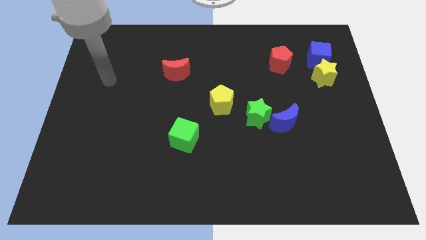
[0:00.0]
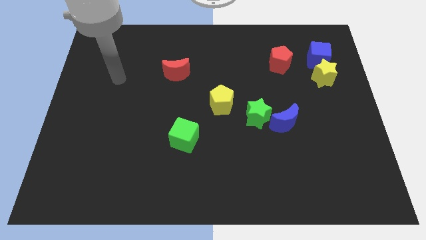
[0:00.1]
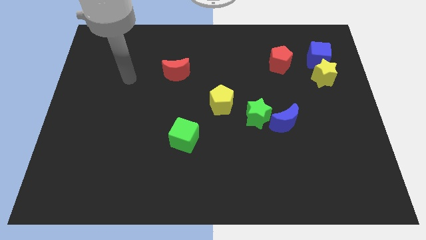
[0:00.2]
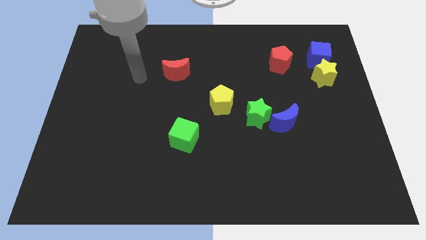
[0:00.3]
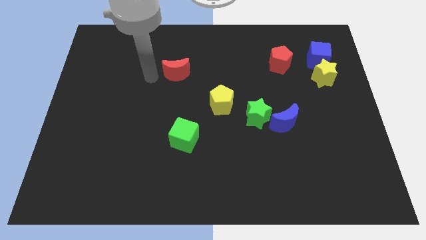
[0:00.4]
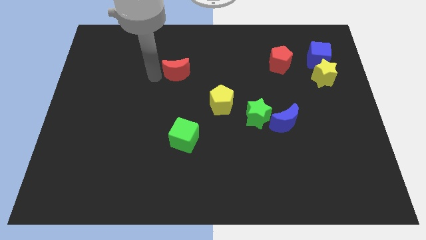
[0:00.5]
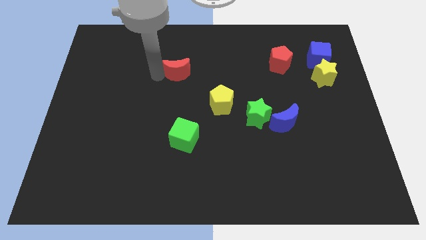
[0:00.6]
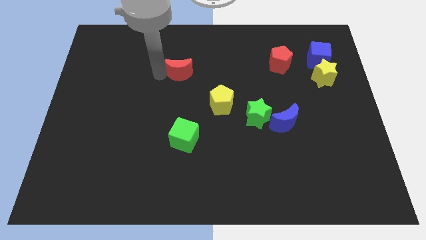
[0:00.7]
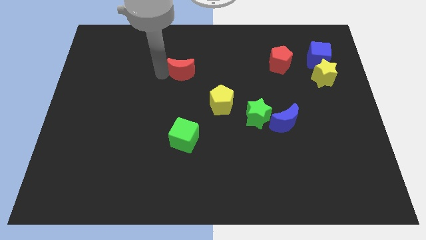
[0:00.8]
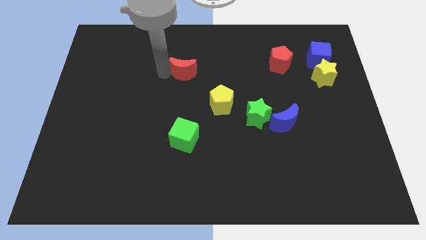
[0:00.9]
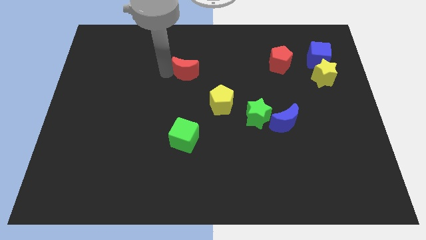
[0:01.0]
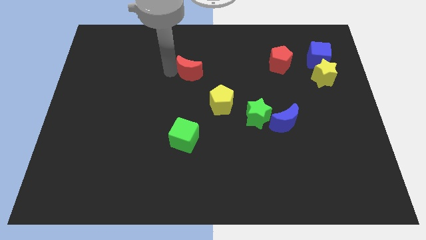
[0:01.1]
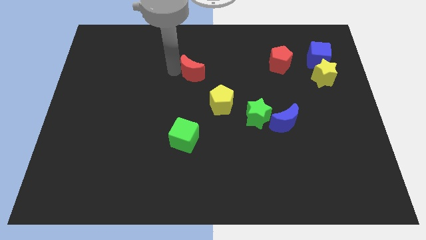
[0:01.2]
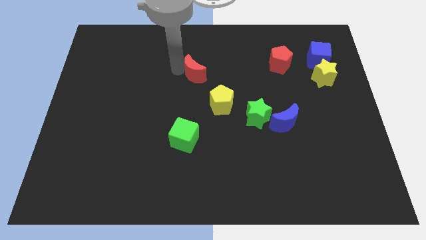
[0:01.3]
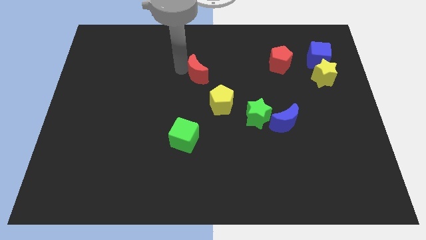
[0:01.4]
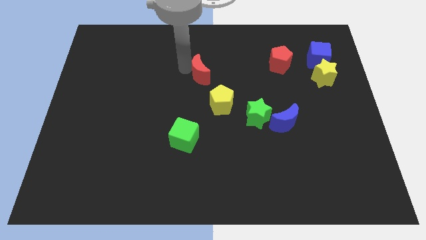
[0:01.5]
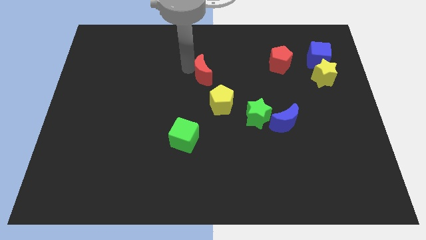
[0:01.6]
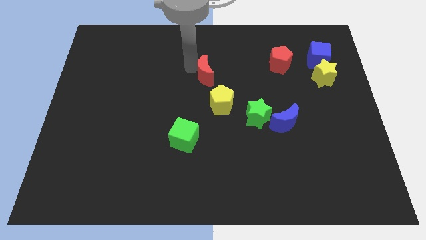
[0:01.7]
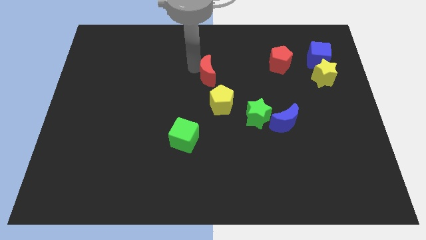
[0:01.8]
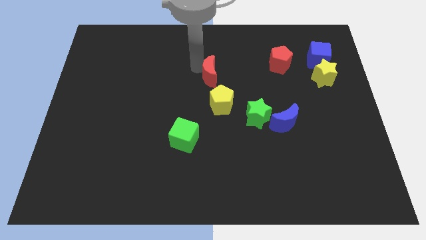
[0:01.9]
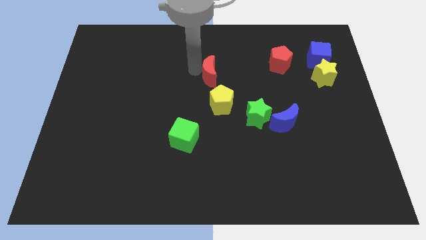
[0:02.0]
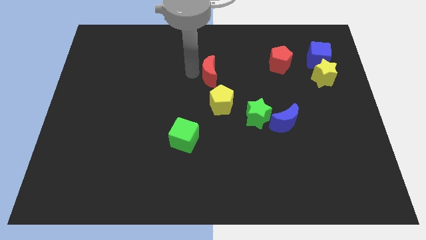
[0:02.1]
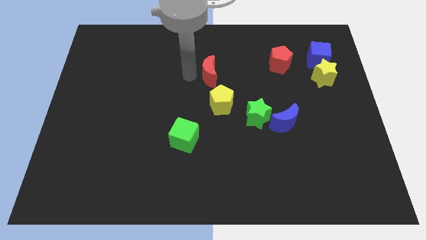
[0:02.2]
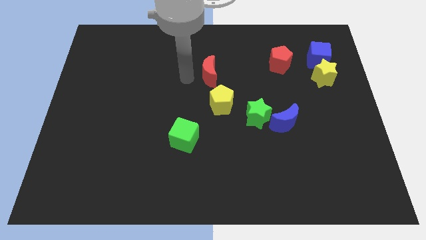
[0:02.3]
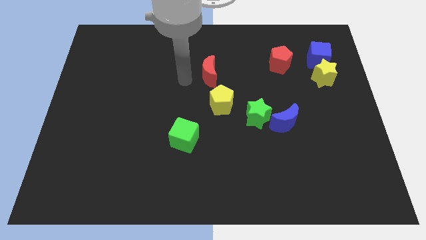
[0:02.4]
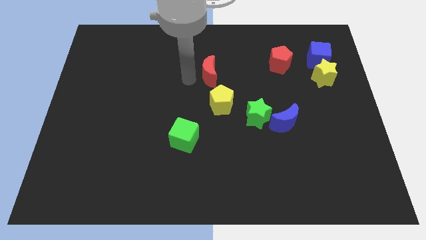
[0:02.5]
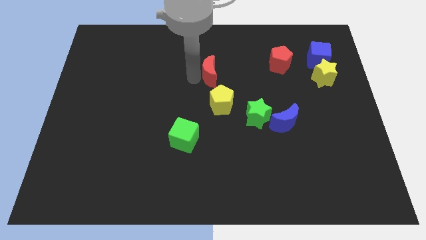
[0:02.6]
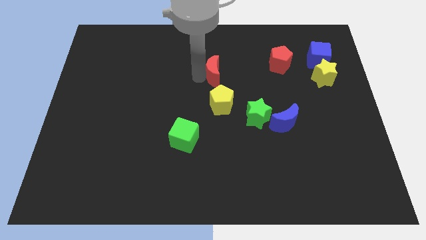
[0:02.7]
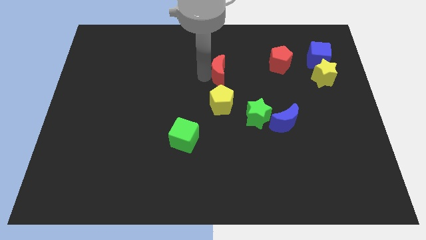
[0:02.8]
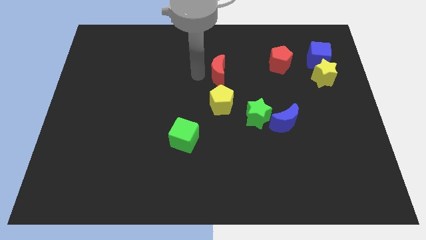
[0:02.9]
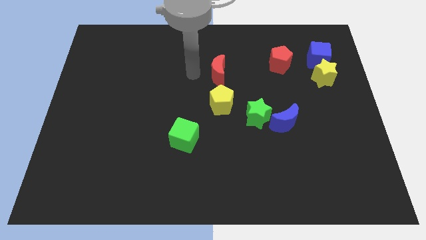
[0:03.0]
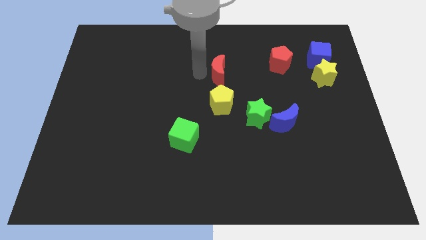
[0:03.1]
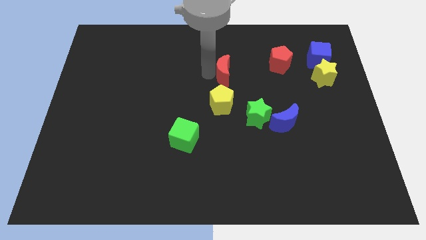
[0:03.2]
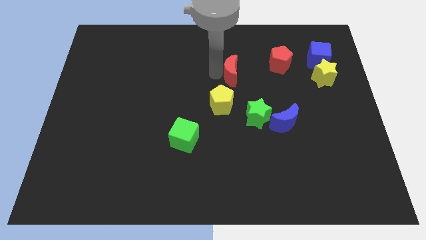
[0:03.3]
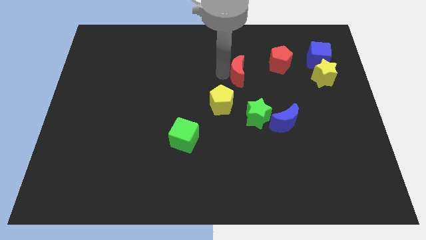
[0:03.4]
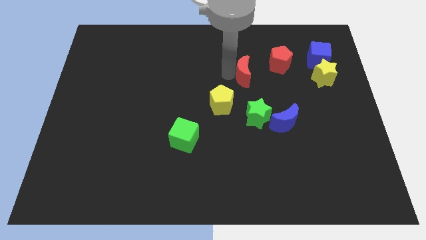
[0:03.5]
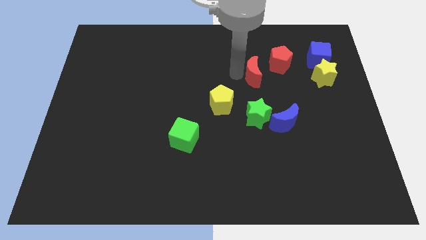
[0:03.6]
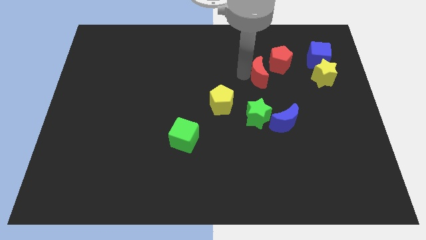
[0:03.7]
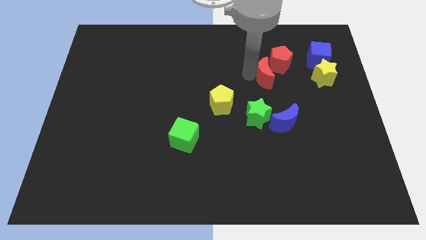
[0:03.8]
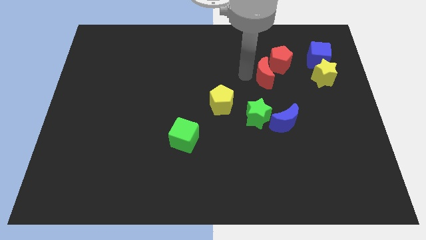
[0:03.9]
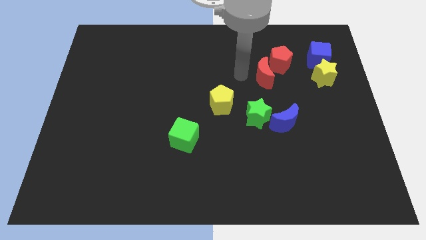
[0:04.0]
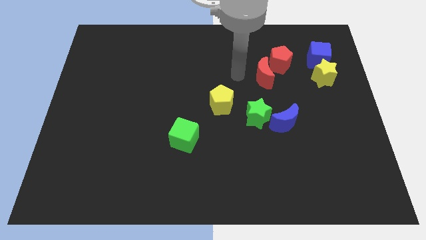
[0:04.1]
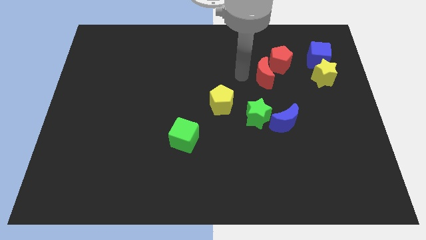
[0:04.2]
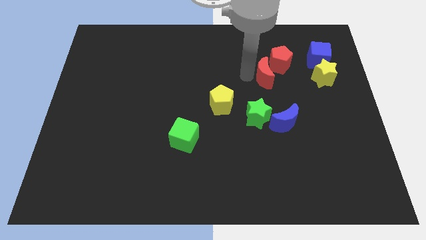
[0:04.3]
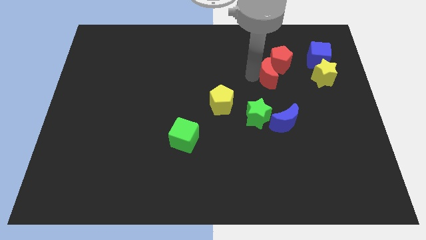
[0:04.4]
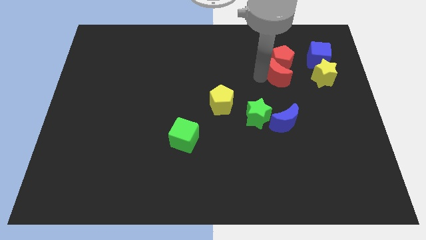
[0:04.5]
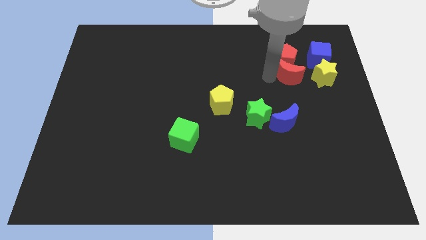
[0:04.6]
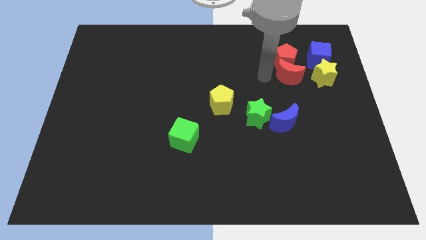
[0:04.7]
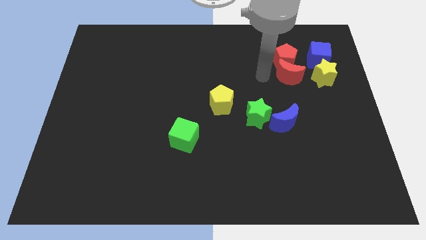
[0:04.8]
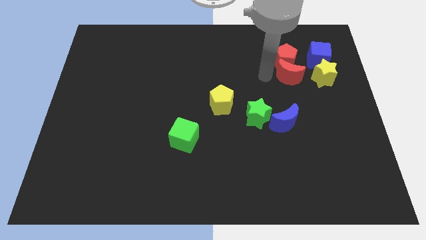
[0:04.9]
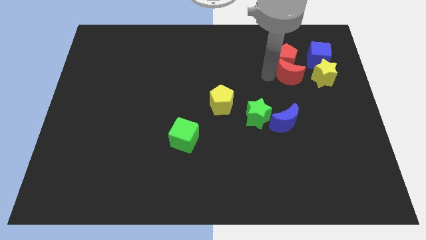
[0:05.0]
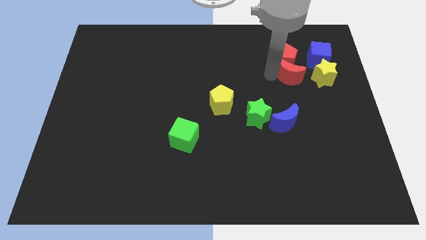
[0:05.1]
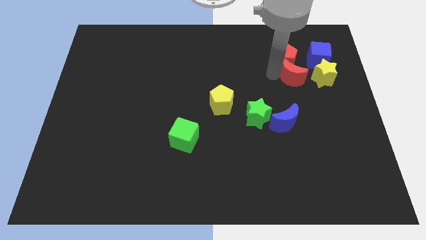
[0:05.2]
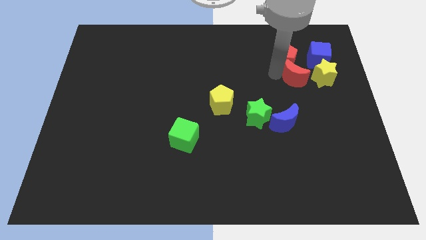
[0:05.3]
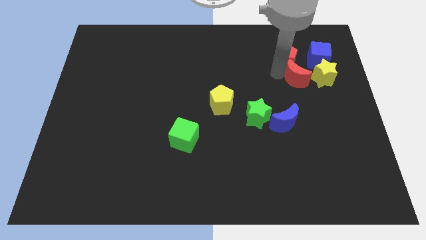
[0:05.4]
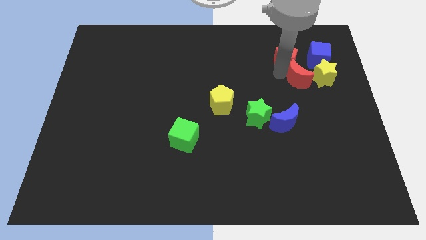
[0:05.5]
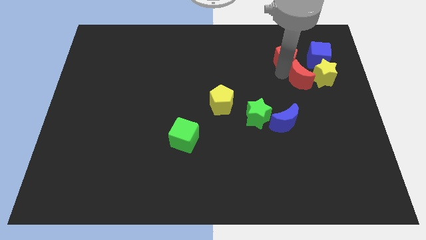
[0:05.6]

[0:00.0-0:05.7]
push the red moon close to the yellow star

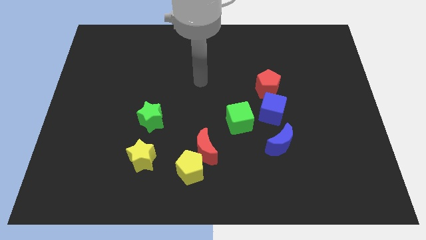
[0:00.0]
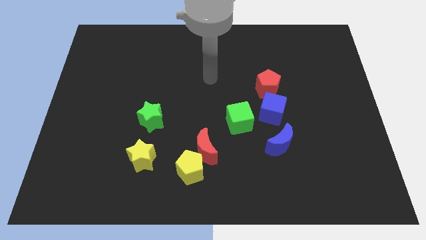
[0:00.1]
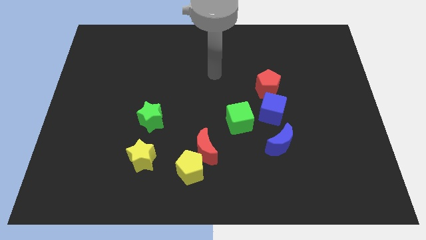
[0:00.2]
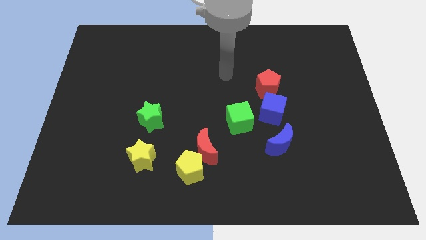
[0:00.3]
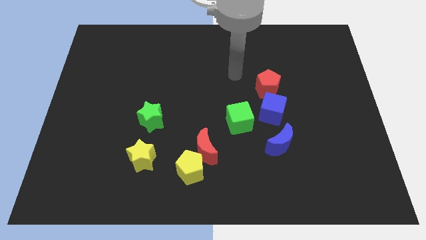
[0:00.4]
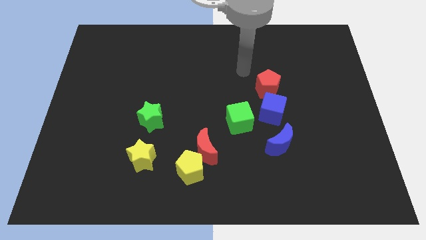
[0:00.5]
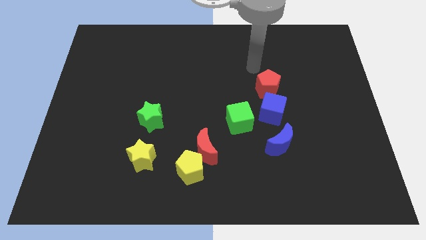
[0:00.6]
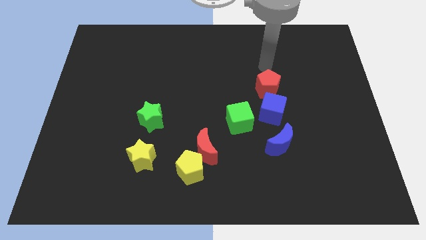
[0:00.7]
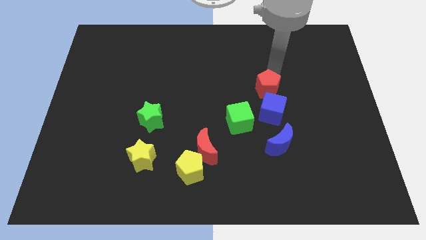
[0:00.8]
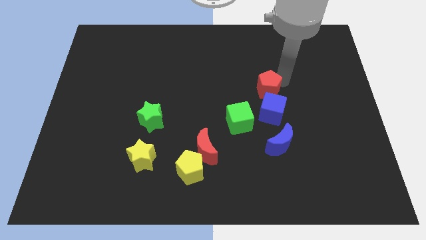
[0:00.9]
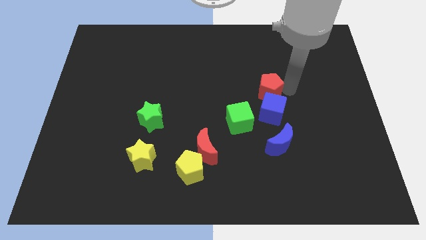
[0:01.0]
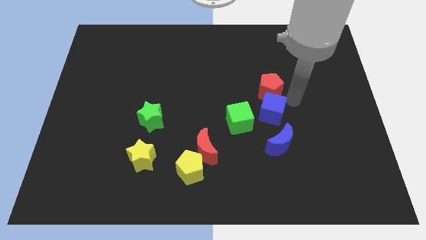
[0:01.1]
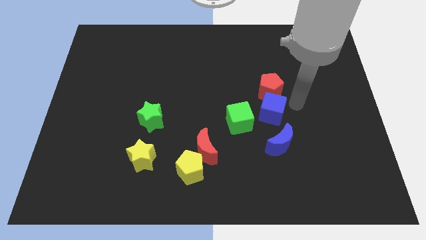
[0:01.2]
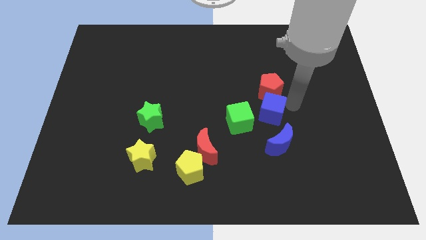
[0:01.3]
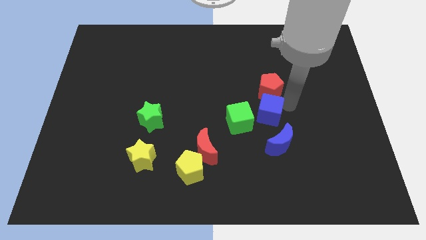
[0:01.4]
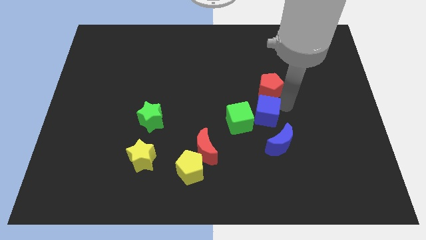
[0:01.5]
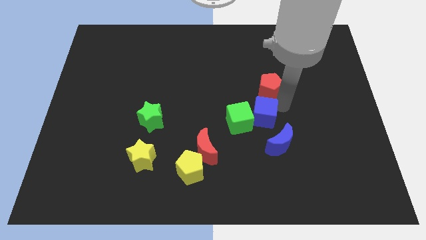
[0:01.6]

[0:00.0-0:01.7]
move the blue cube towards the green cube
